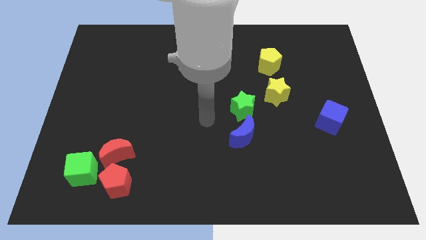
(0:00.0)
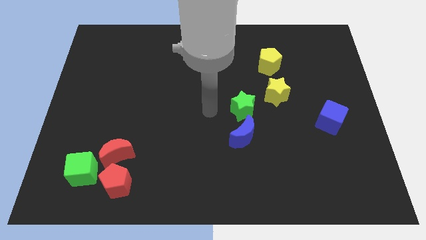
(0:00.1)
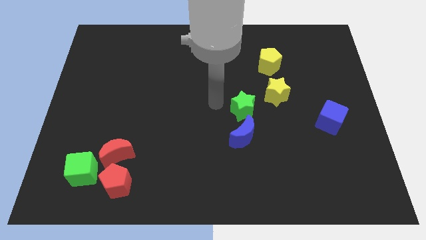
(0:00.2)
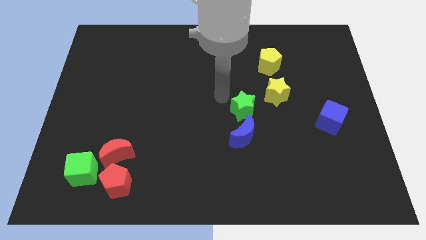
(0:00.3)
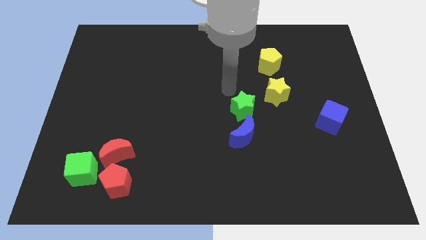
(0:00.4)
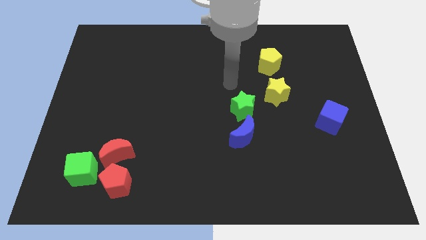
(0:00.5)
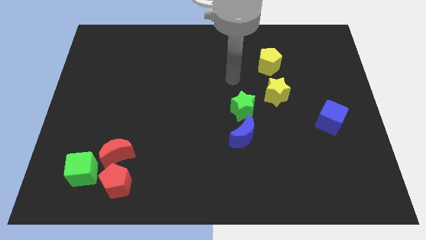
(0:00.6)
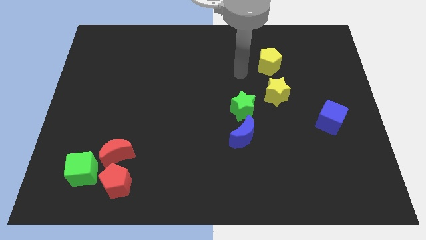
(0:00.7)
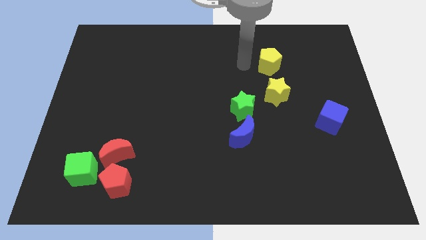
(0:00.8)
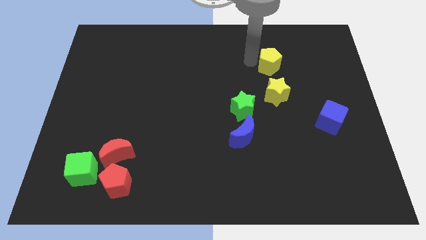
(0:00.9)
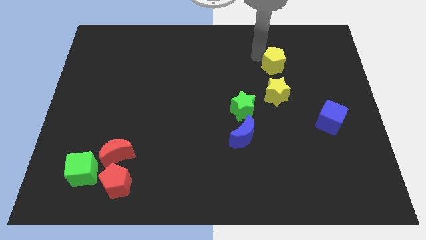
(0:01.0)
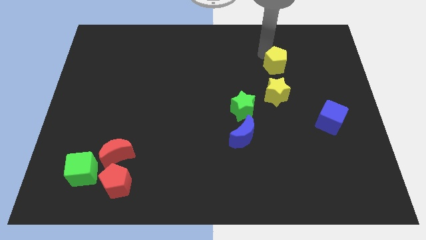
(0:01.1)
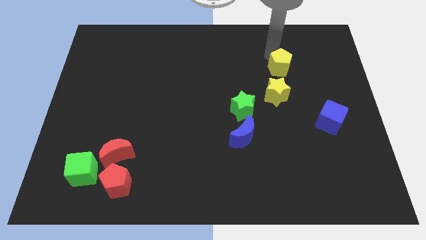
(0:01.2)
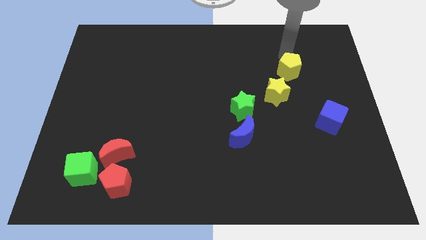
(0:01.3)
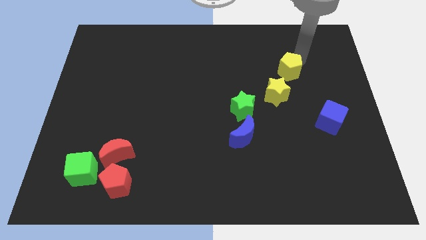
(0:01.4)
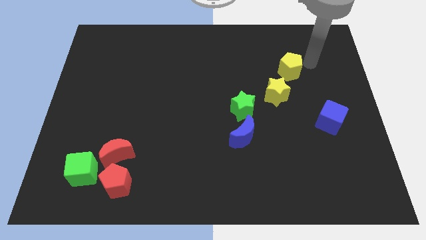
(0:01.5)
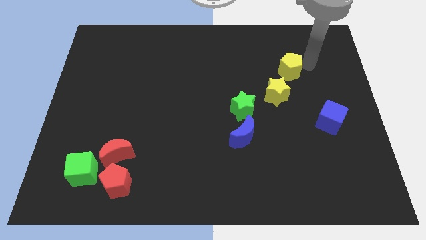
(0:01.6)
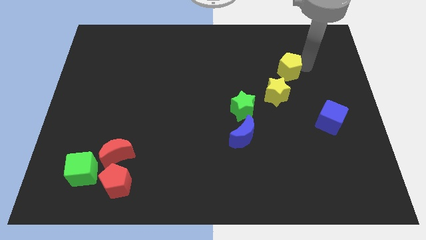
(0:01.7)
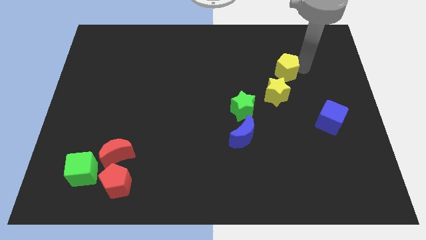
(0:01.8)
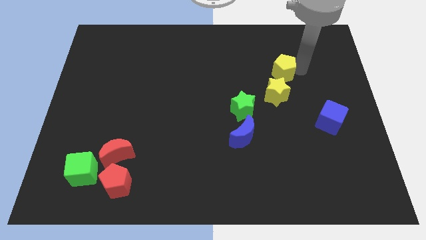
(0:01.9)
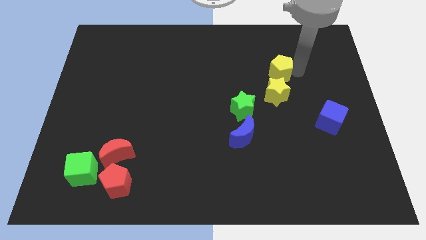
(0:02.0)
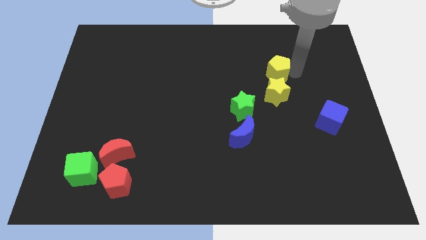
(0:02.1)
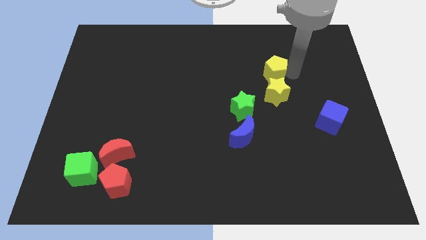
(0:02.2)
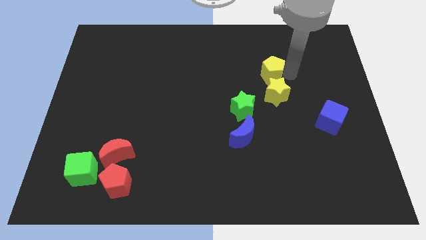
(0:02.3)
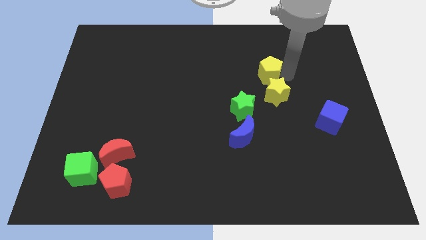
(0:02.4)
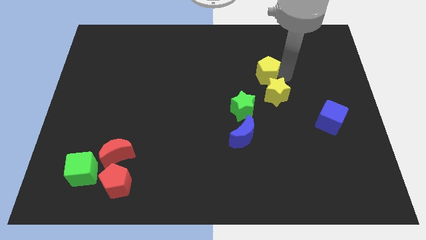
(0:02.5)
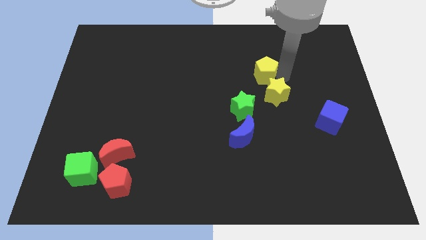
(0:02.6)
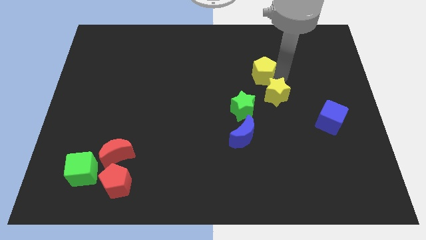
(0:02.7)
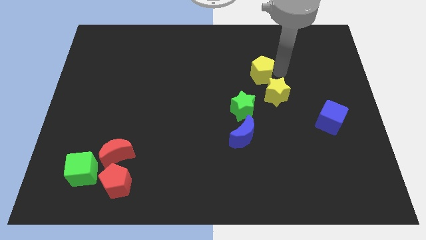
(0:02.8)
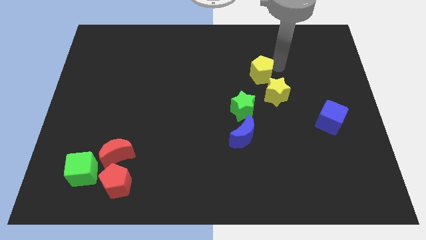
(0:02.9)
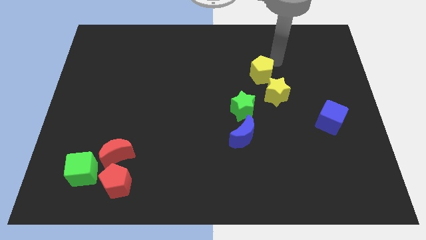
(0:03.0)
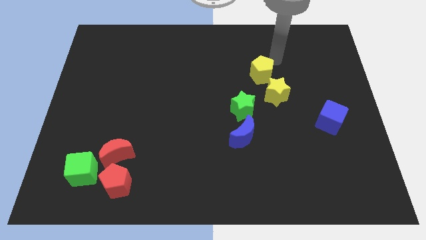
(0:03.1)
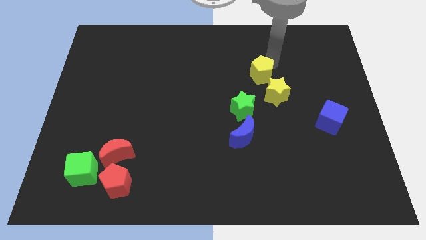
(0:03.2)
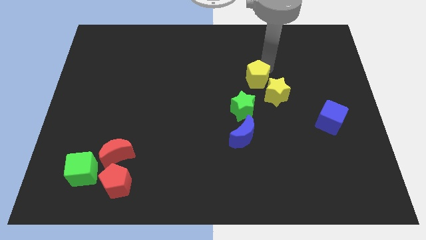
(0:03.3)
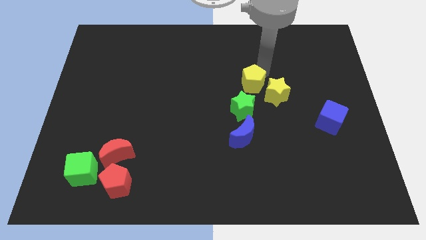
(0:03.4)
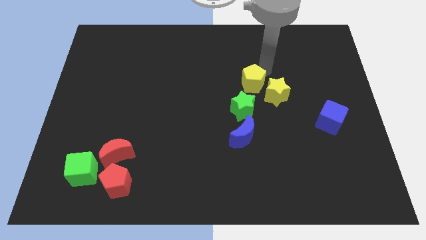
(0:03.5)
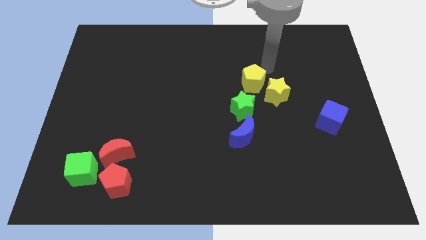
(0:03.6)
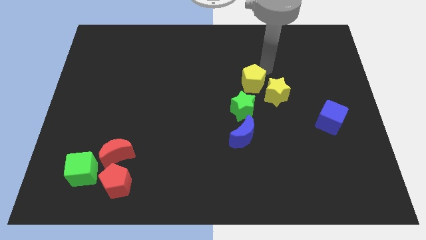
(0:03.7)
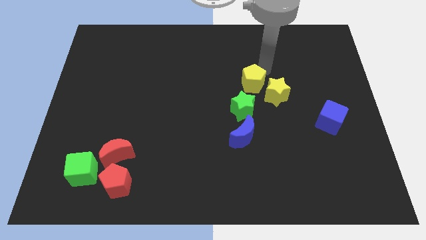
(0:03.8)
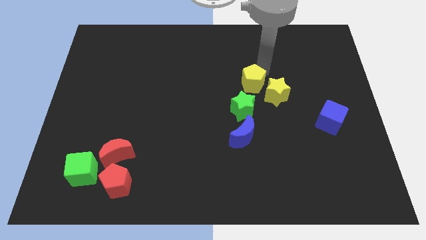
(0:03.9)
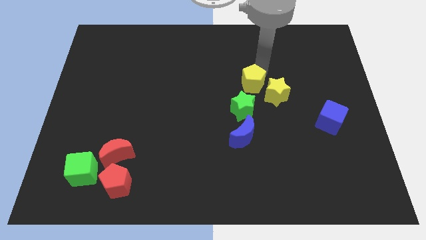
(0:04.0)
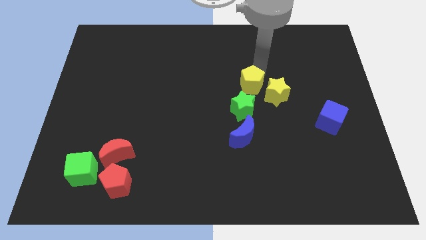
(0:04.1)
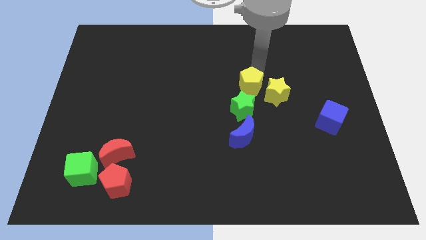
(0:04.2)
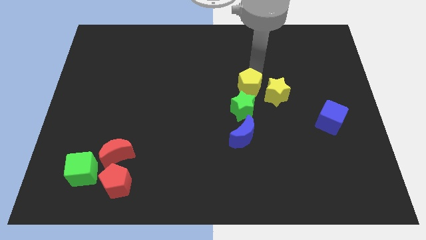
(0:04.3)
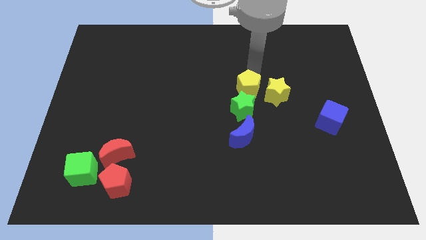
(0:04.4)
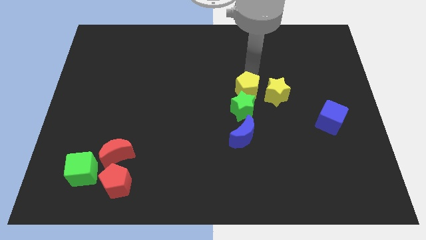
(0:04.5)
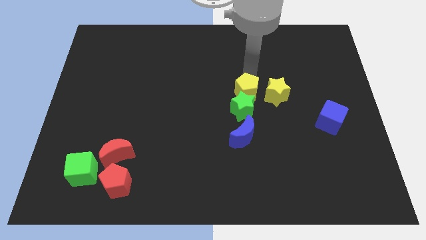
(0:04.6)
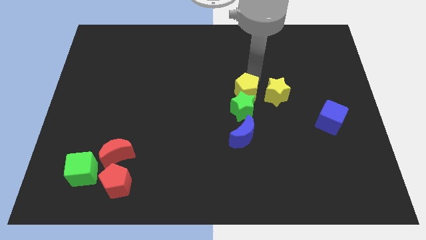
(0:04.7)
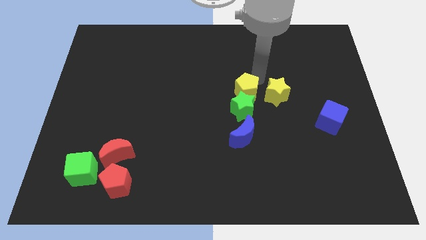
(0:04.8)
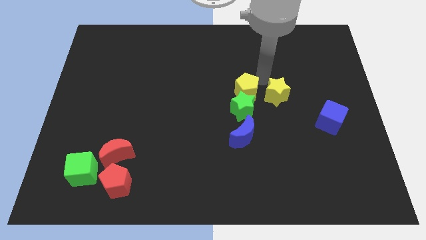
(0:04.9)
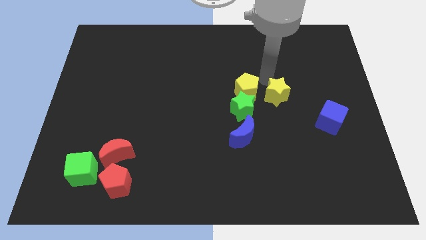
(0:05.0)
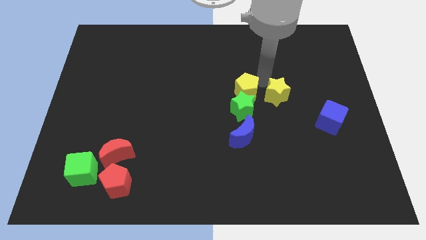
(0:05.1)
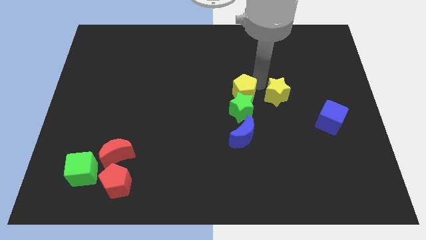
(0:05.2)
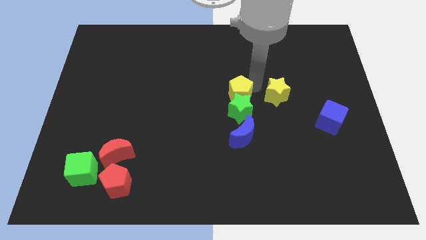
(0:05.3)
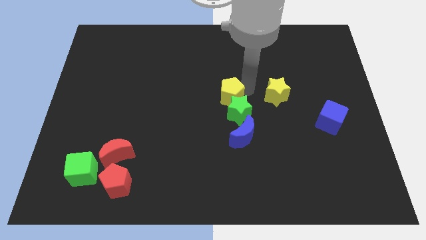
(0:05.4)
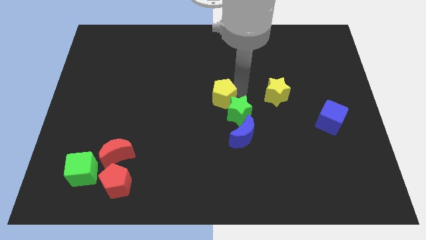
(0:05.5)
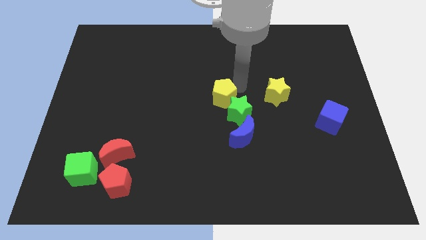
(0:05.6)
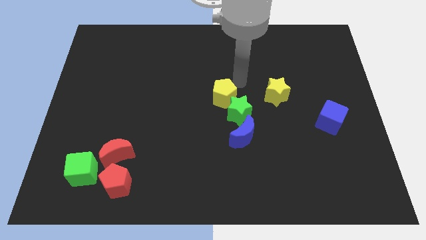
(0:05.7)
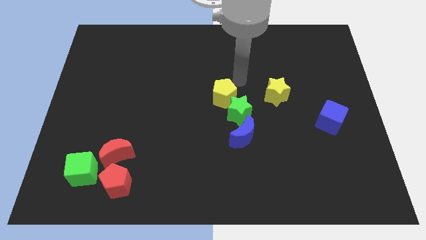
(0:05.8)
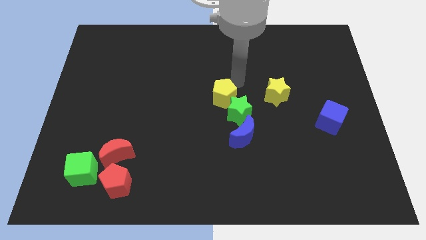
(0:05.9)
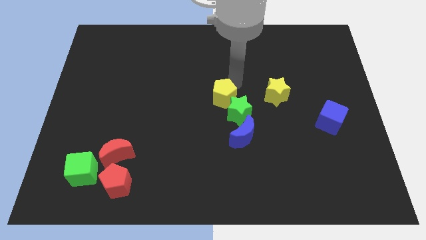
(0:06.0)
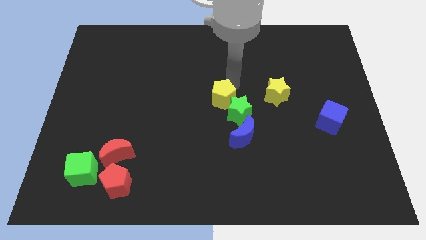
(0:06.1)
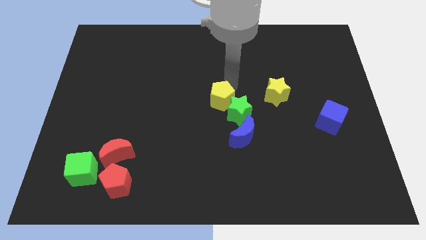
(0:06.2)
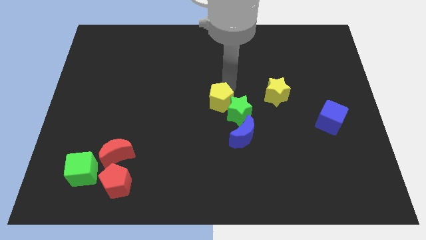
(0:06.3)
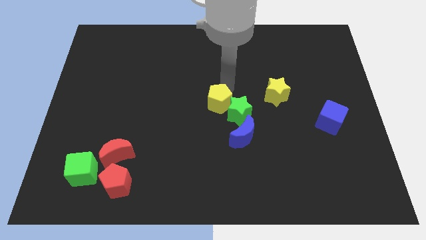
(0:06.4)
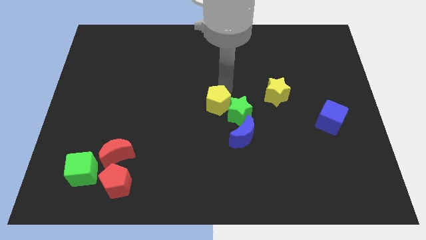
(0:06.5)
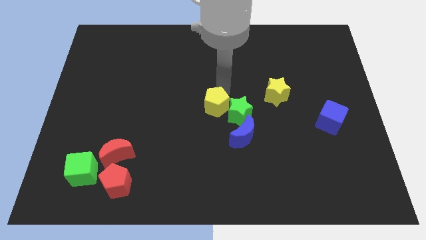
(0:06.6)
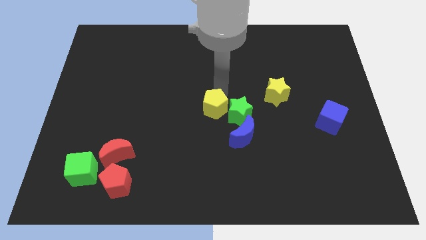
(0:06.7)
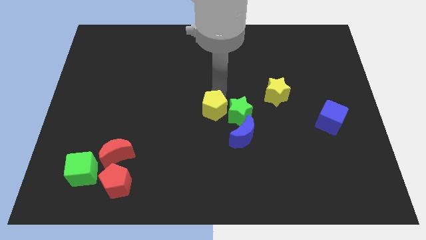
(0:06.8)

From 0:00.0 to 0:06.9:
push the yellow pentagon downwards and then left

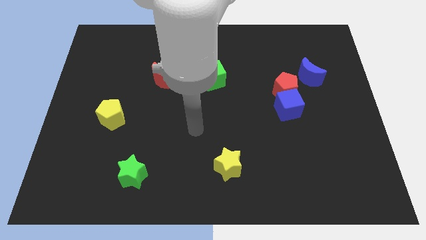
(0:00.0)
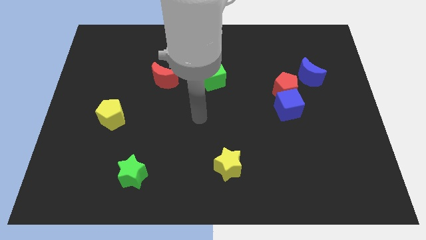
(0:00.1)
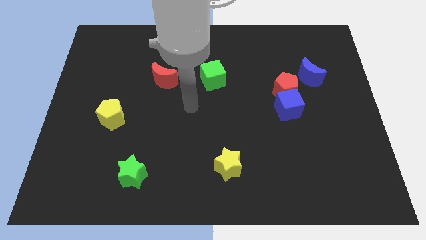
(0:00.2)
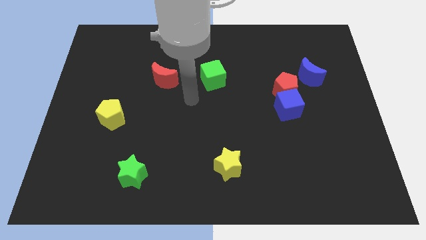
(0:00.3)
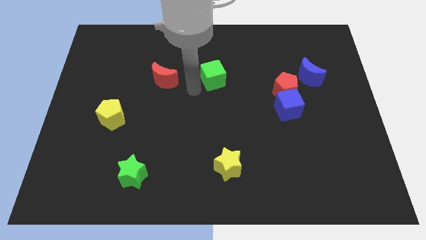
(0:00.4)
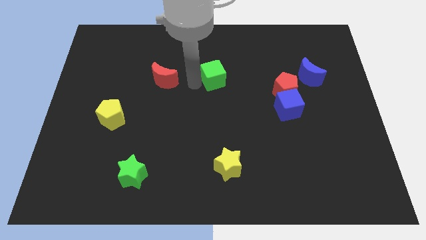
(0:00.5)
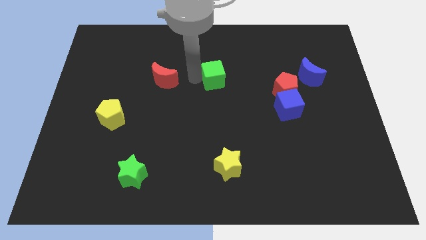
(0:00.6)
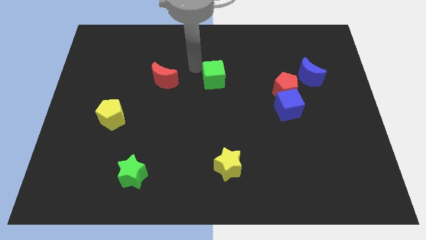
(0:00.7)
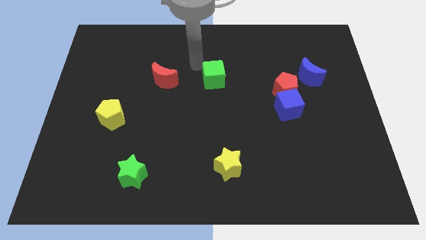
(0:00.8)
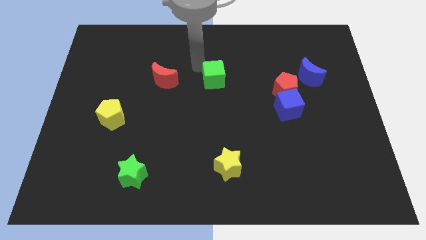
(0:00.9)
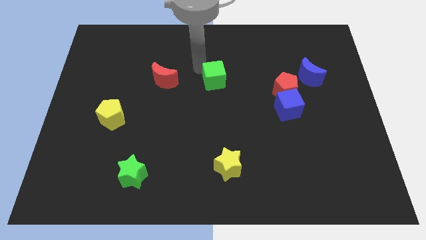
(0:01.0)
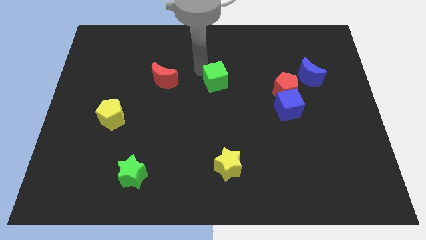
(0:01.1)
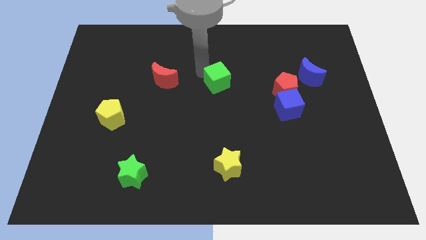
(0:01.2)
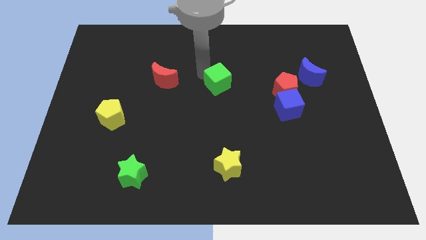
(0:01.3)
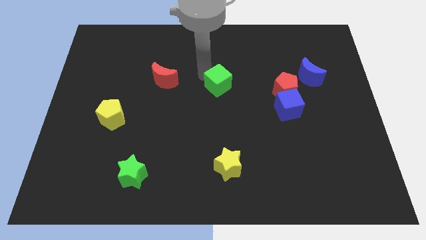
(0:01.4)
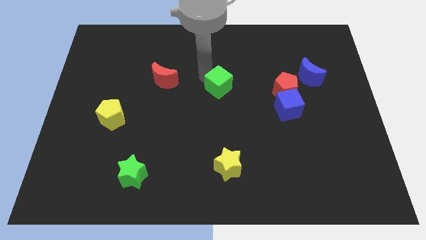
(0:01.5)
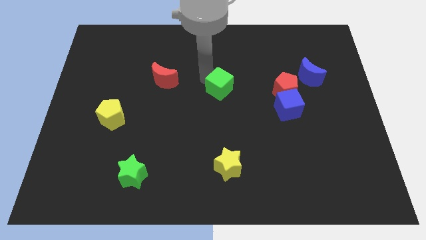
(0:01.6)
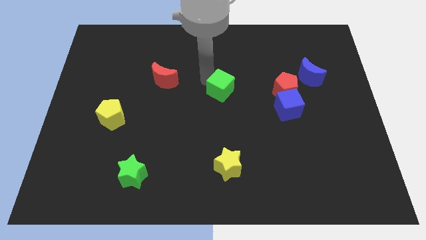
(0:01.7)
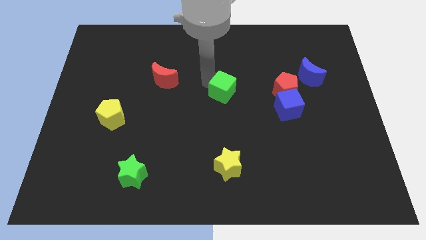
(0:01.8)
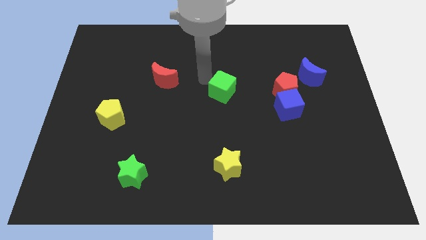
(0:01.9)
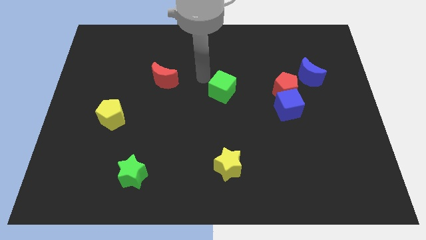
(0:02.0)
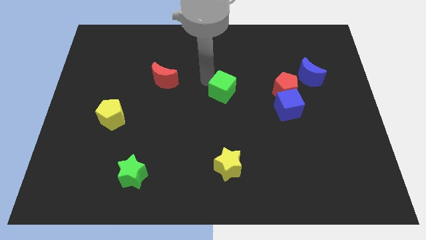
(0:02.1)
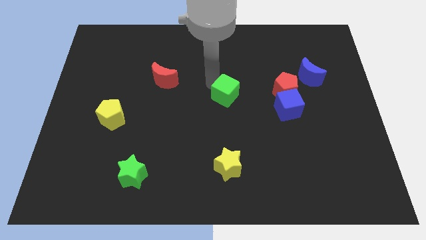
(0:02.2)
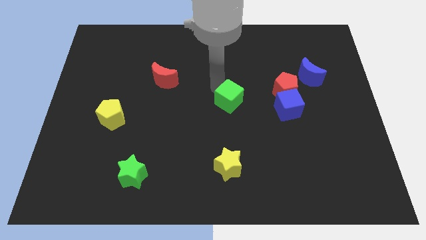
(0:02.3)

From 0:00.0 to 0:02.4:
slightly slide the green cube diagonally down and right
